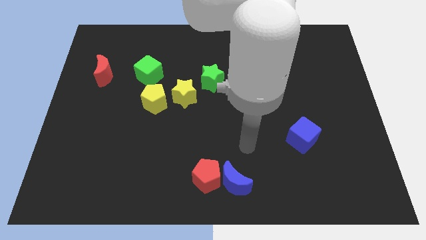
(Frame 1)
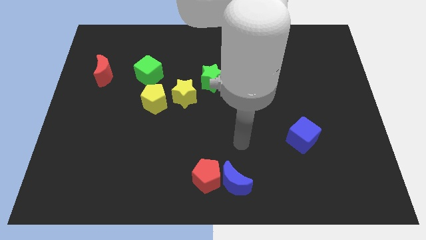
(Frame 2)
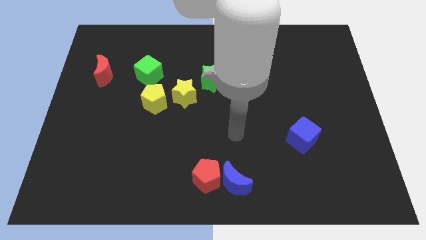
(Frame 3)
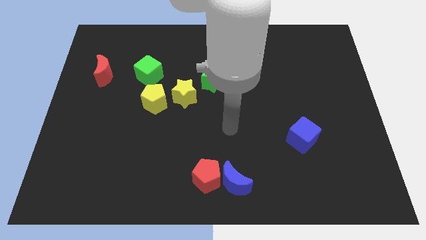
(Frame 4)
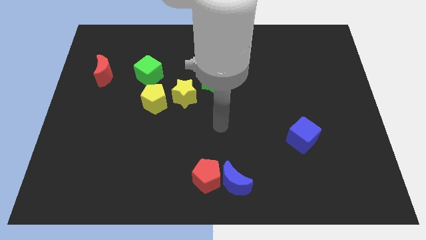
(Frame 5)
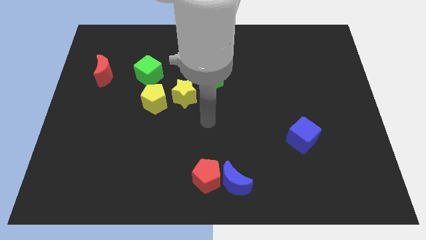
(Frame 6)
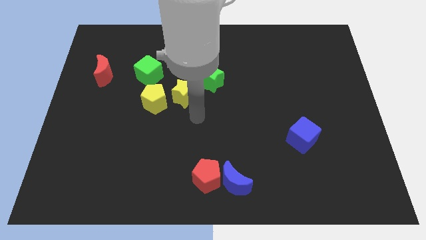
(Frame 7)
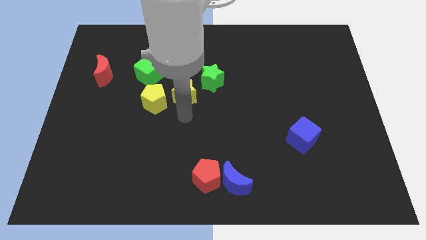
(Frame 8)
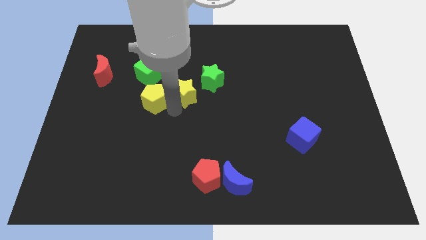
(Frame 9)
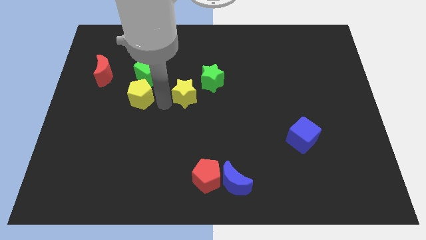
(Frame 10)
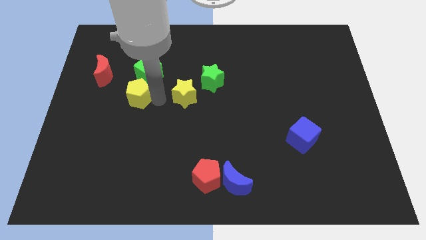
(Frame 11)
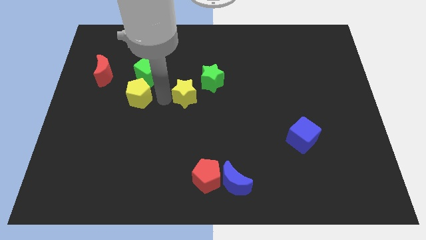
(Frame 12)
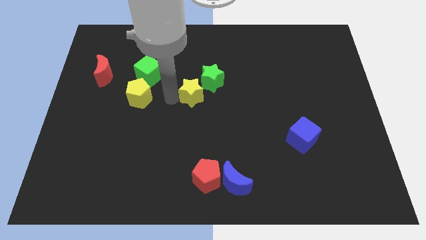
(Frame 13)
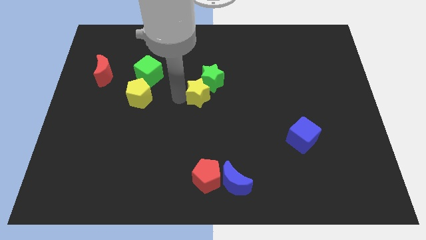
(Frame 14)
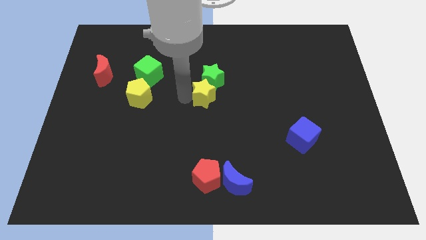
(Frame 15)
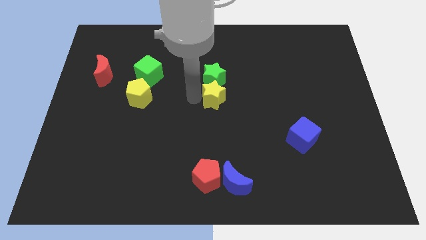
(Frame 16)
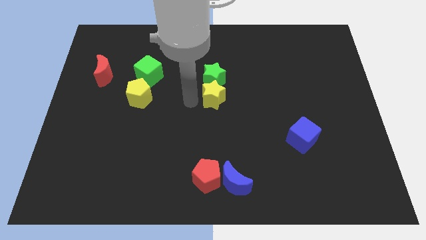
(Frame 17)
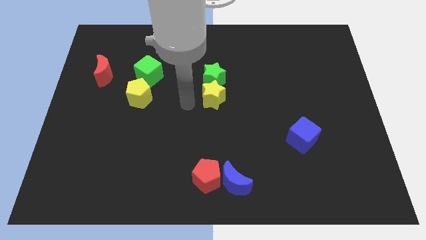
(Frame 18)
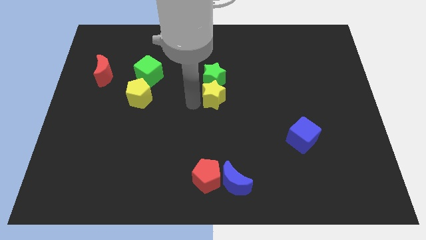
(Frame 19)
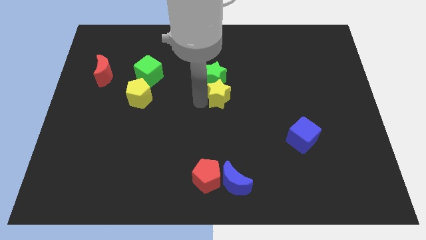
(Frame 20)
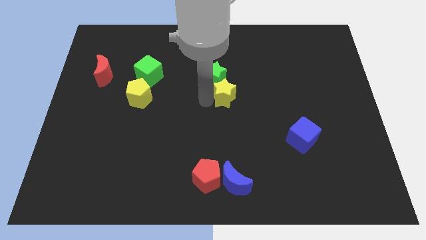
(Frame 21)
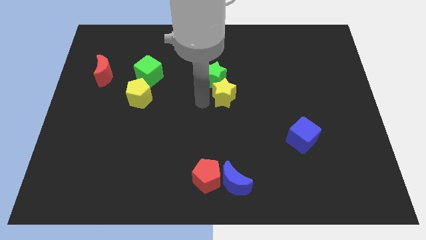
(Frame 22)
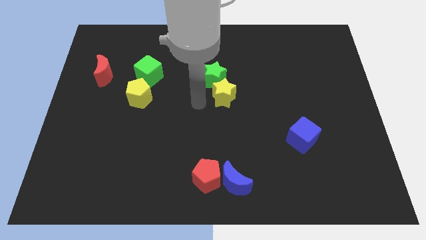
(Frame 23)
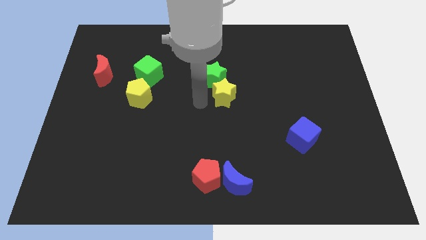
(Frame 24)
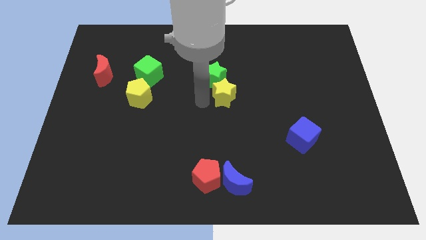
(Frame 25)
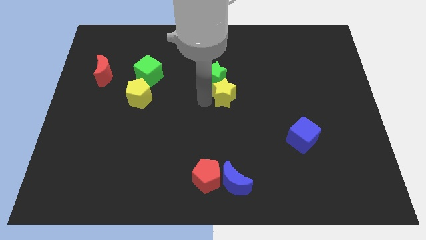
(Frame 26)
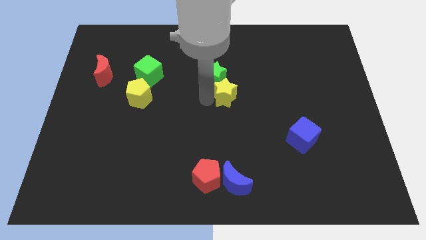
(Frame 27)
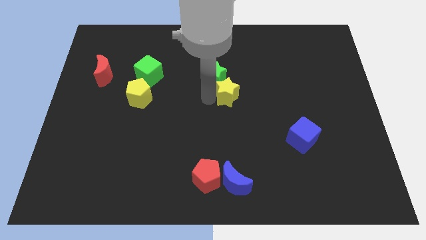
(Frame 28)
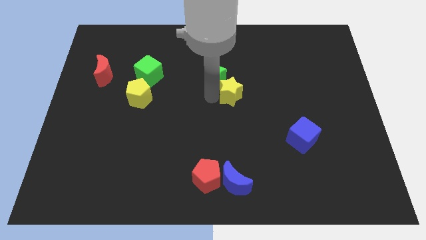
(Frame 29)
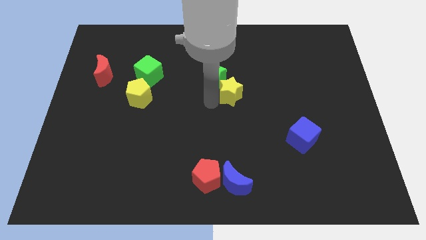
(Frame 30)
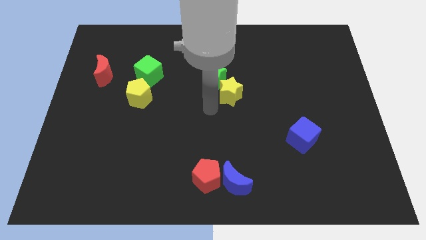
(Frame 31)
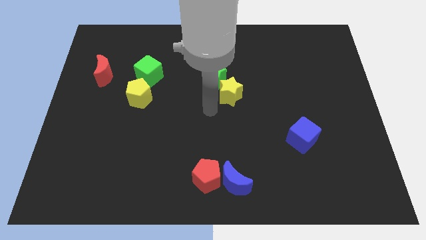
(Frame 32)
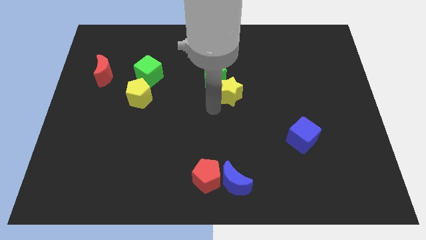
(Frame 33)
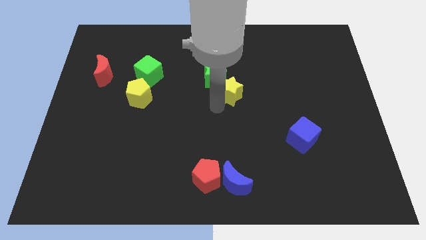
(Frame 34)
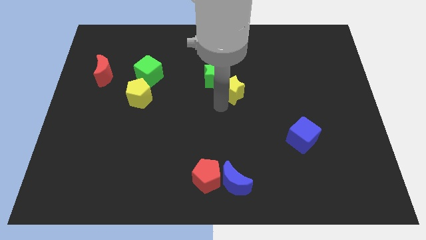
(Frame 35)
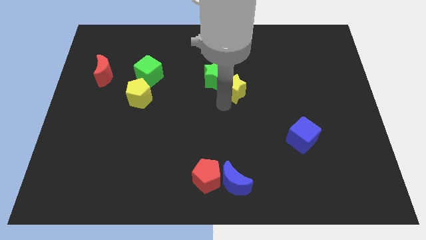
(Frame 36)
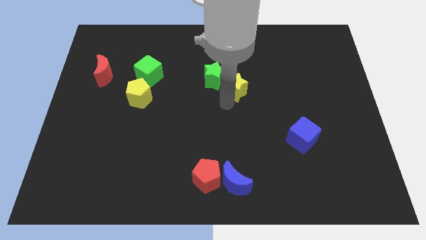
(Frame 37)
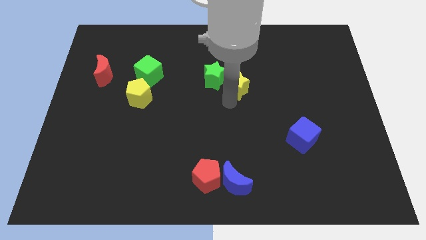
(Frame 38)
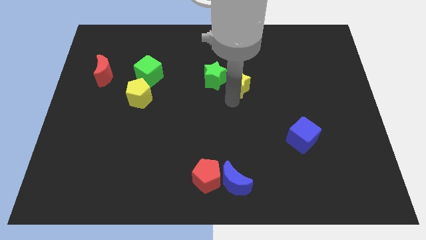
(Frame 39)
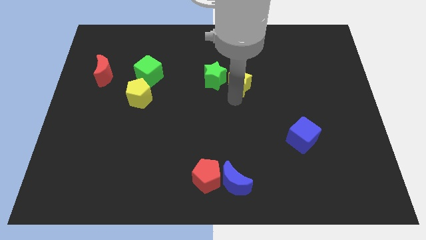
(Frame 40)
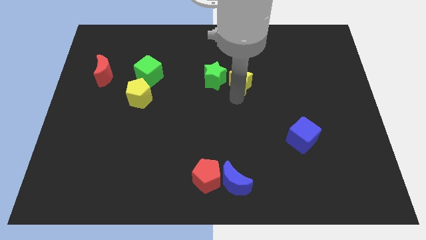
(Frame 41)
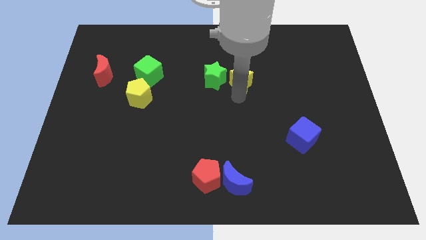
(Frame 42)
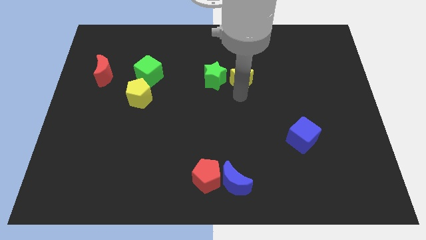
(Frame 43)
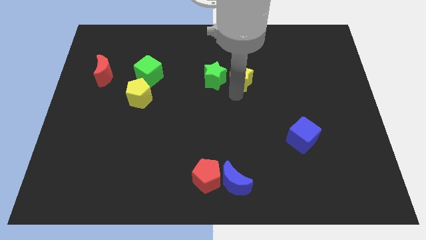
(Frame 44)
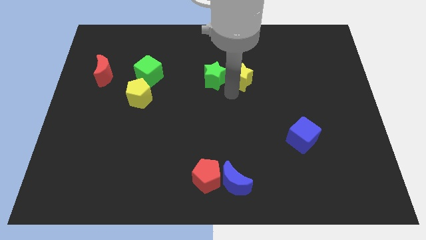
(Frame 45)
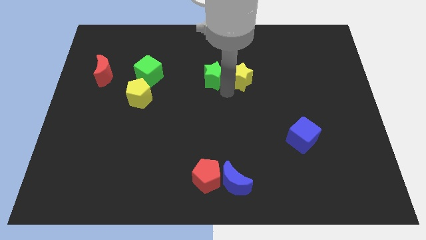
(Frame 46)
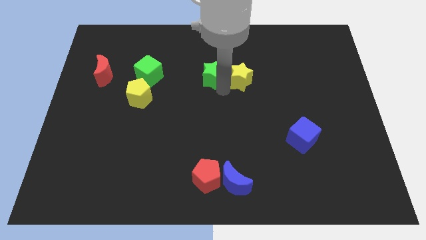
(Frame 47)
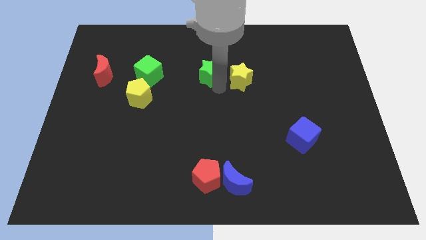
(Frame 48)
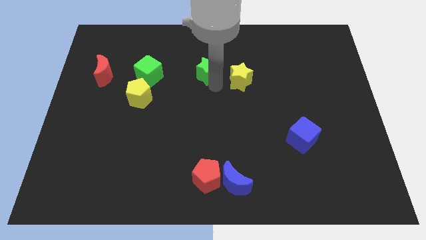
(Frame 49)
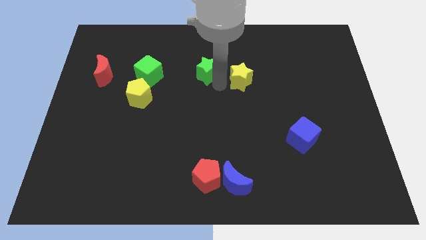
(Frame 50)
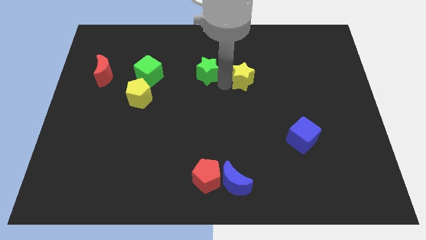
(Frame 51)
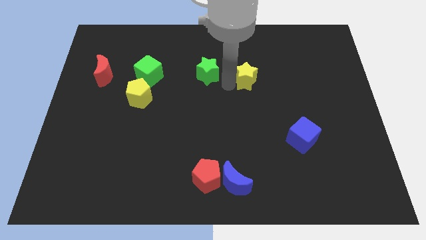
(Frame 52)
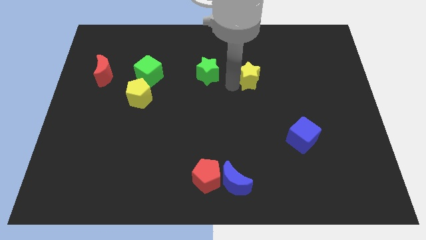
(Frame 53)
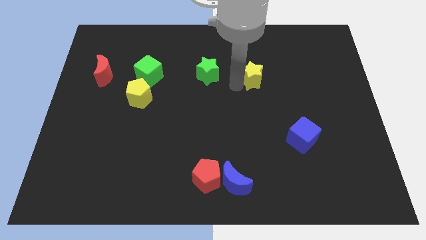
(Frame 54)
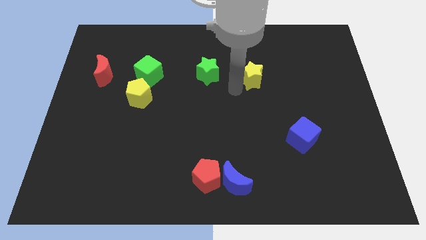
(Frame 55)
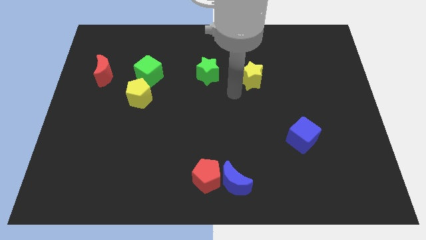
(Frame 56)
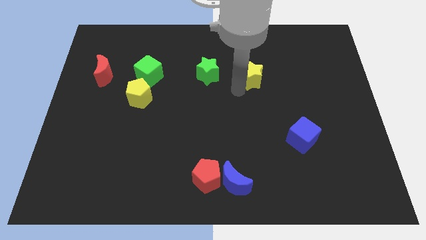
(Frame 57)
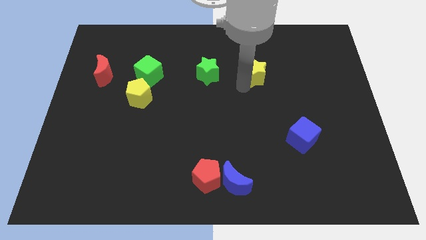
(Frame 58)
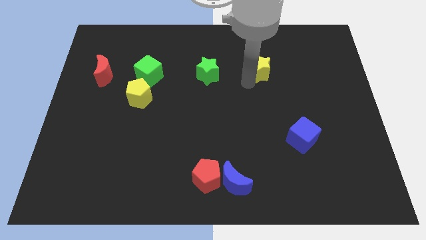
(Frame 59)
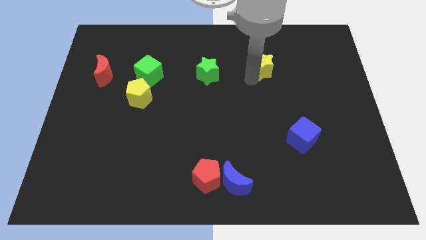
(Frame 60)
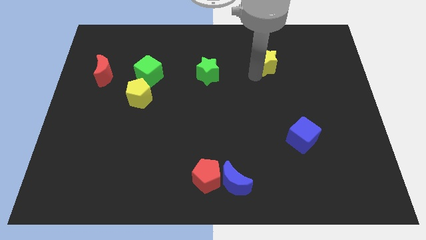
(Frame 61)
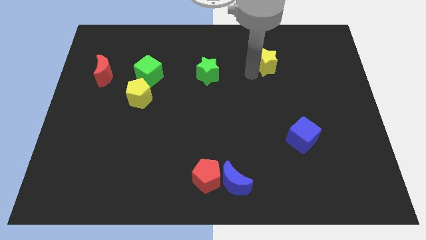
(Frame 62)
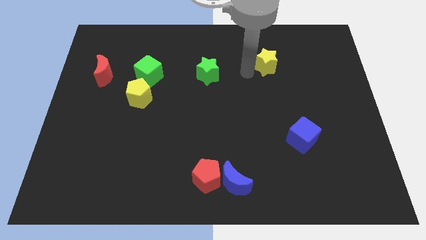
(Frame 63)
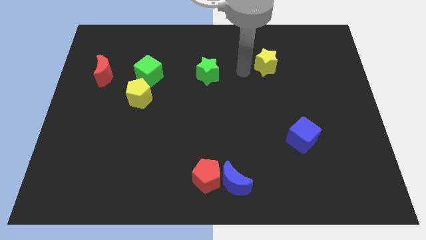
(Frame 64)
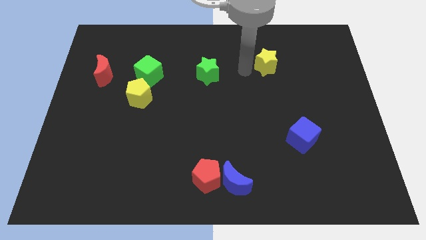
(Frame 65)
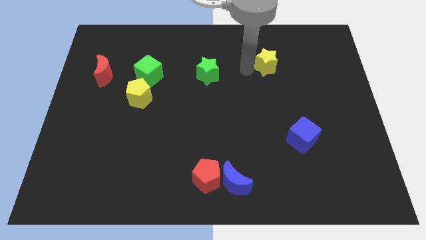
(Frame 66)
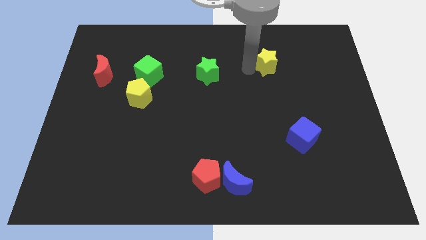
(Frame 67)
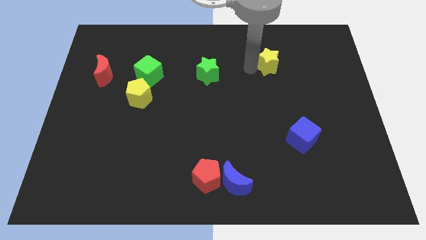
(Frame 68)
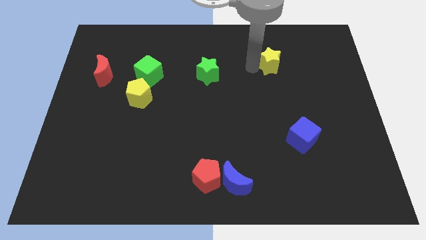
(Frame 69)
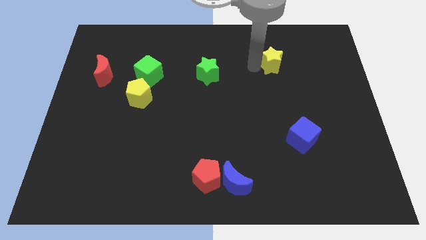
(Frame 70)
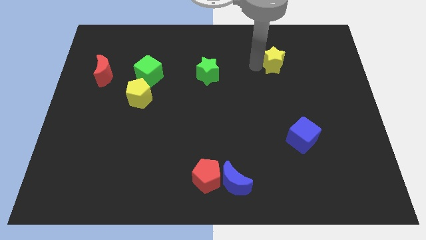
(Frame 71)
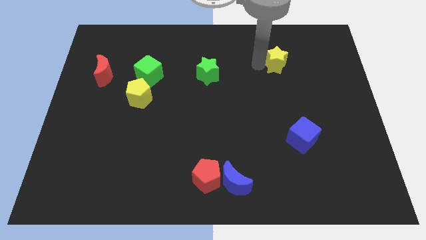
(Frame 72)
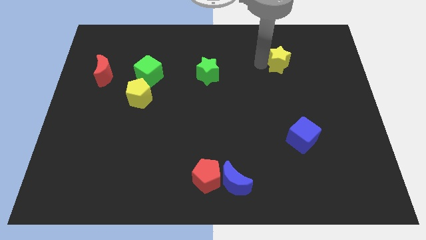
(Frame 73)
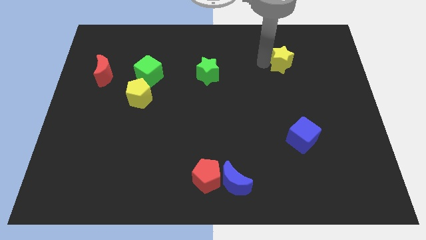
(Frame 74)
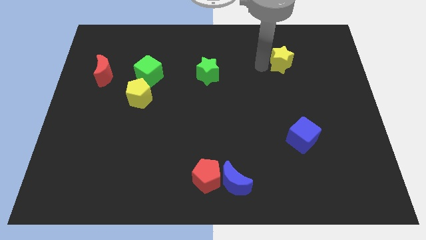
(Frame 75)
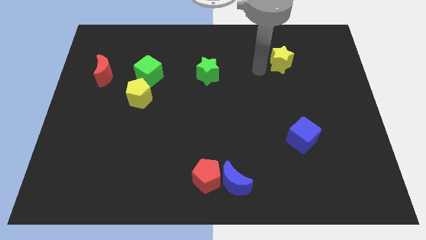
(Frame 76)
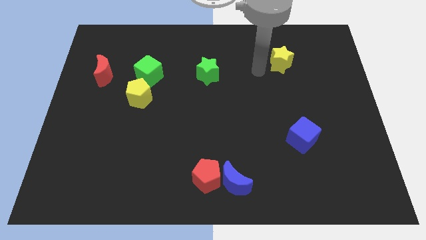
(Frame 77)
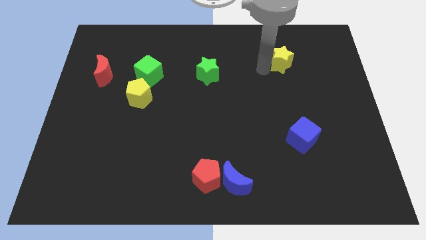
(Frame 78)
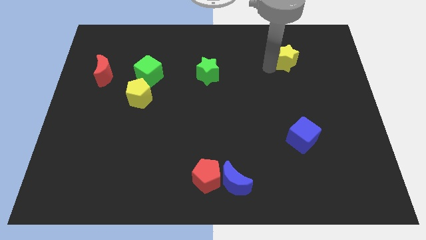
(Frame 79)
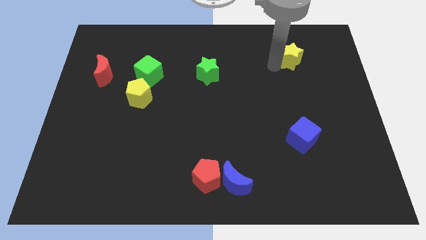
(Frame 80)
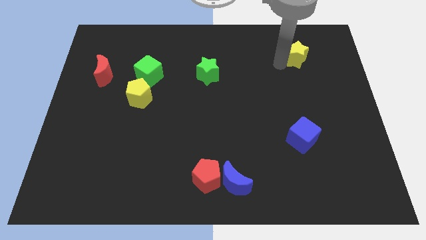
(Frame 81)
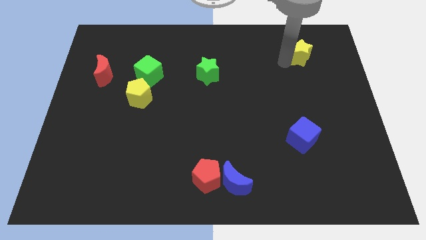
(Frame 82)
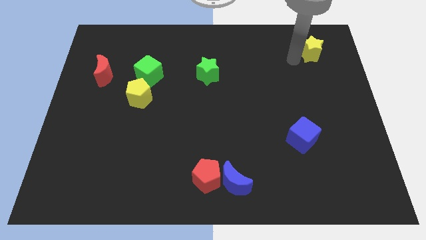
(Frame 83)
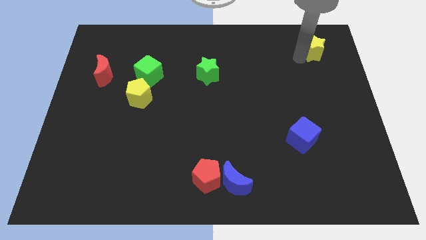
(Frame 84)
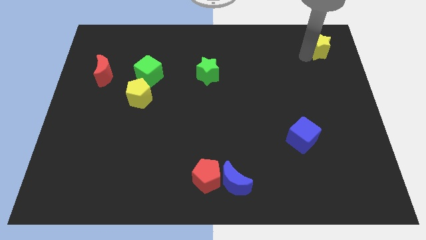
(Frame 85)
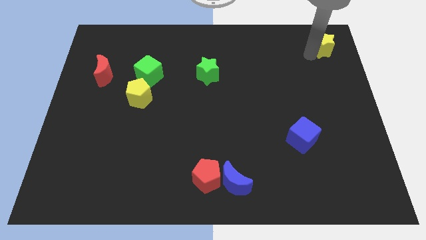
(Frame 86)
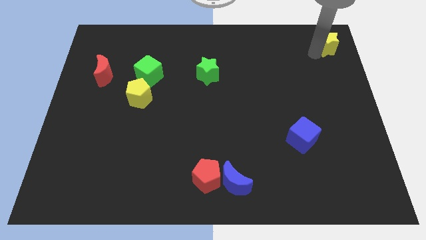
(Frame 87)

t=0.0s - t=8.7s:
move the yellow star to the top right corner
